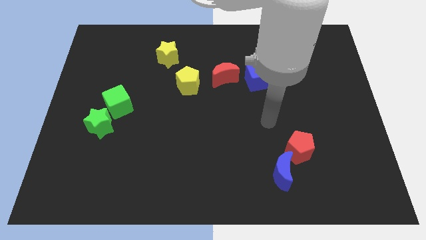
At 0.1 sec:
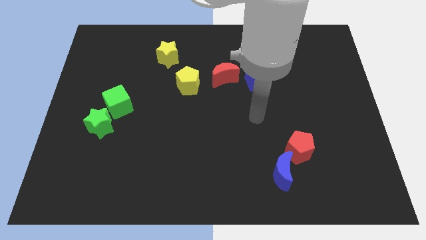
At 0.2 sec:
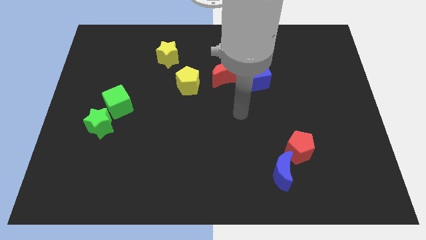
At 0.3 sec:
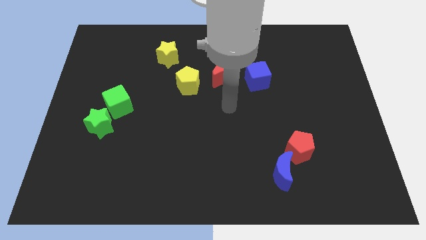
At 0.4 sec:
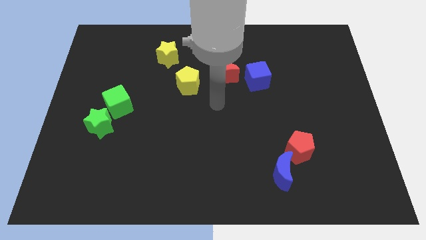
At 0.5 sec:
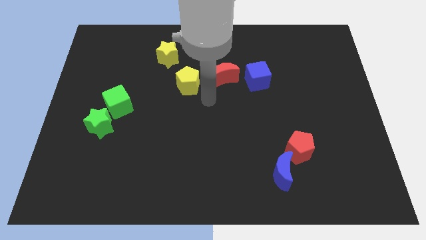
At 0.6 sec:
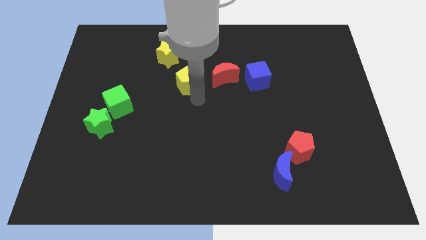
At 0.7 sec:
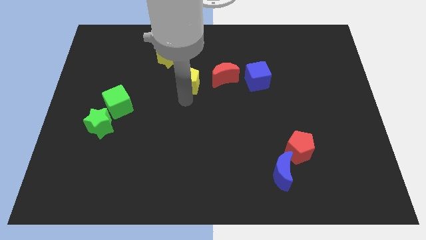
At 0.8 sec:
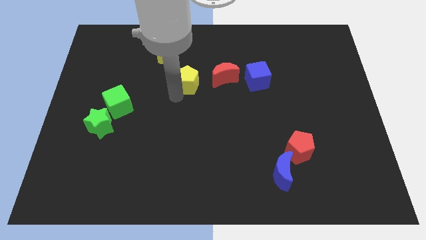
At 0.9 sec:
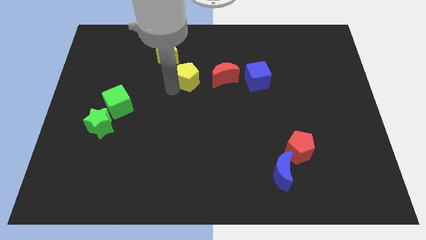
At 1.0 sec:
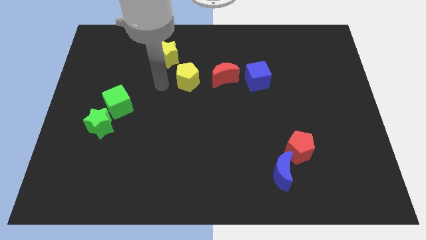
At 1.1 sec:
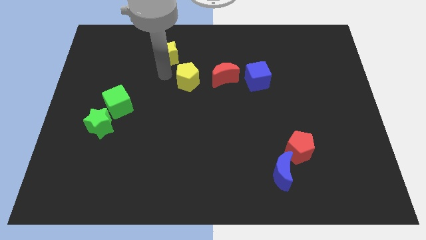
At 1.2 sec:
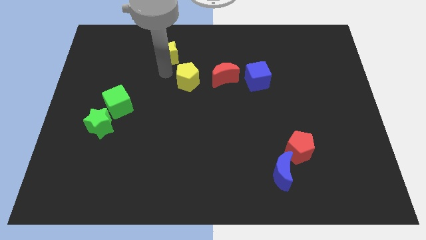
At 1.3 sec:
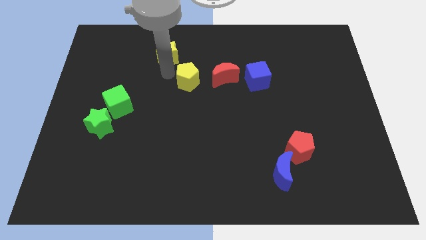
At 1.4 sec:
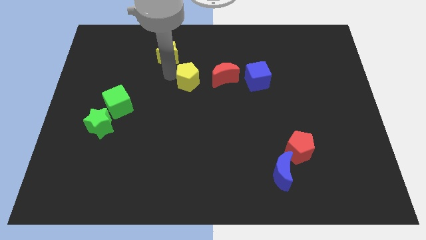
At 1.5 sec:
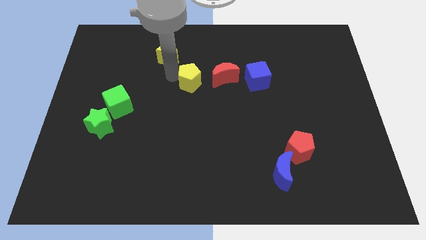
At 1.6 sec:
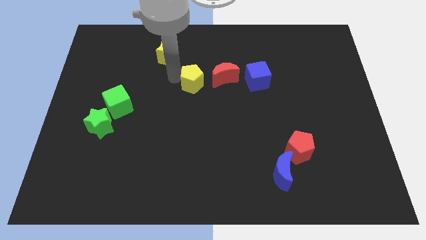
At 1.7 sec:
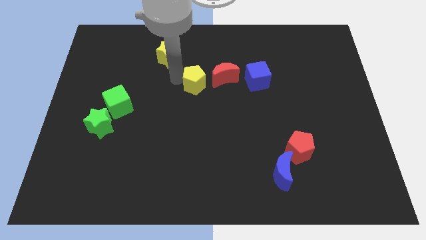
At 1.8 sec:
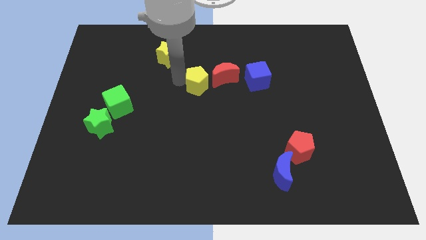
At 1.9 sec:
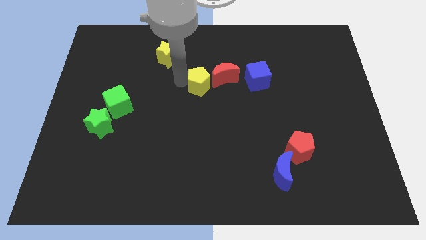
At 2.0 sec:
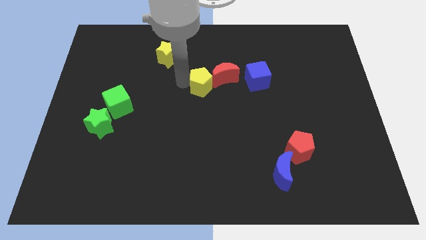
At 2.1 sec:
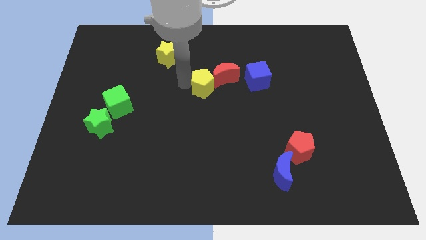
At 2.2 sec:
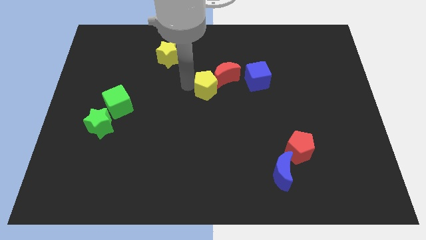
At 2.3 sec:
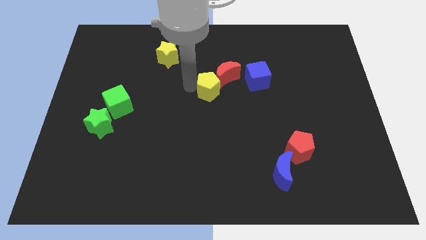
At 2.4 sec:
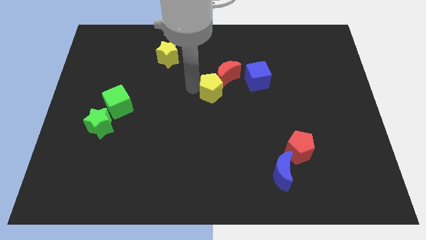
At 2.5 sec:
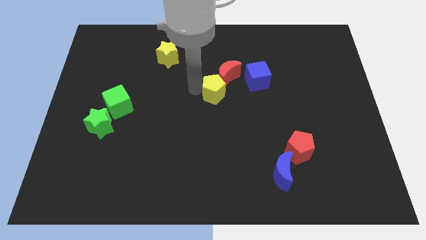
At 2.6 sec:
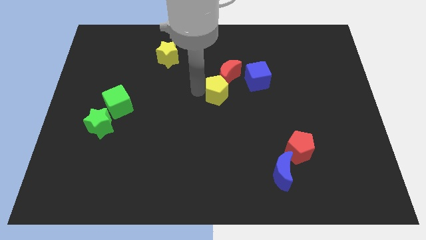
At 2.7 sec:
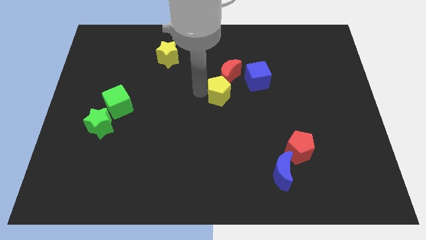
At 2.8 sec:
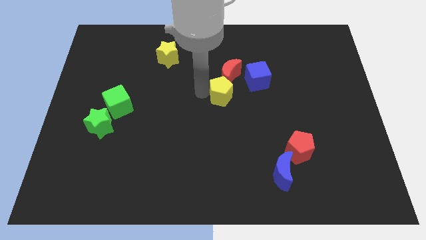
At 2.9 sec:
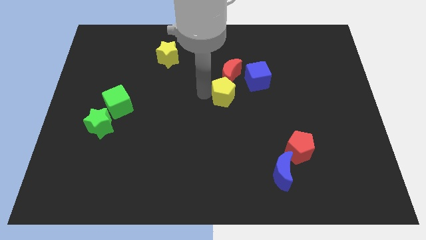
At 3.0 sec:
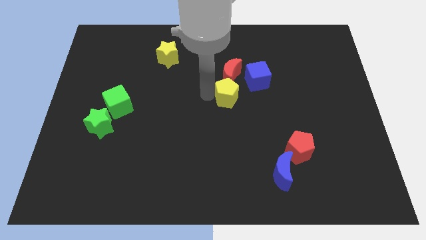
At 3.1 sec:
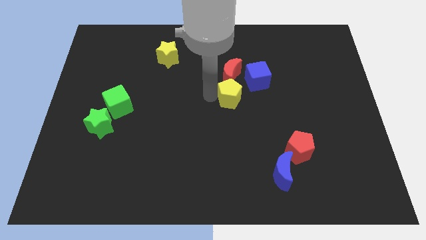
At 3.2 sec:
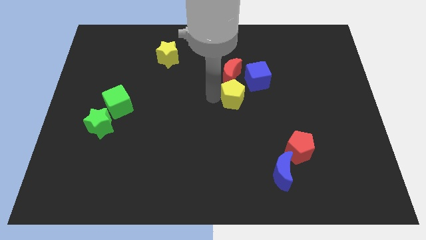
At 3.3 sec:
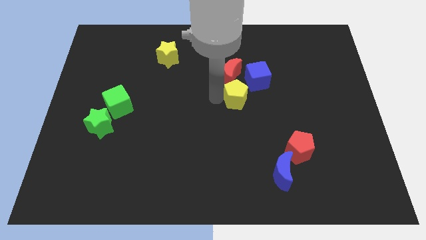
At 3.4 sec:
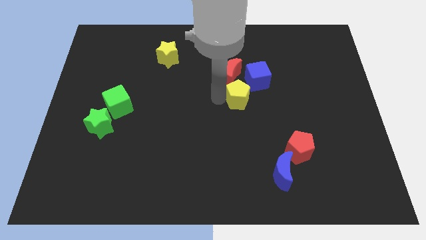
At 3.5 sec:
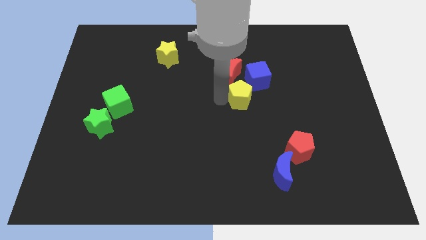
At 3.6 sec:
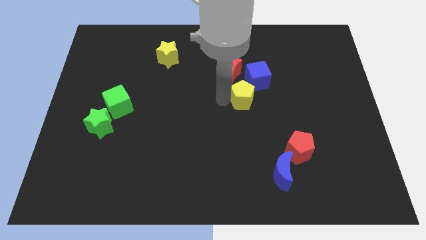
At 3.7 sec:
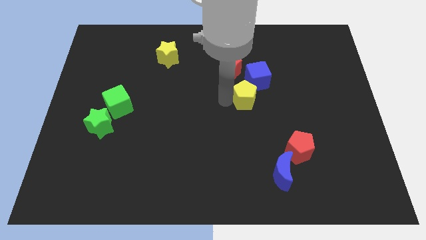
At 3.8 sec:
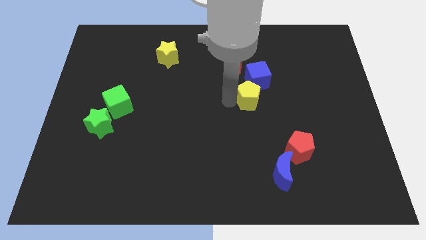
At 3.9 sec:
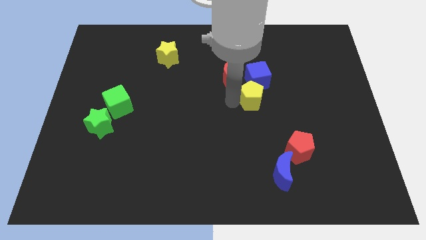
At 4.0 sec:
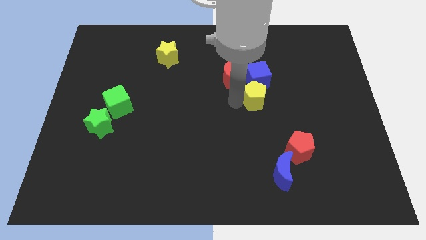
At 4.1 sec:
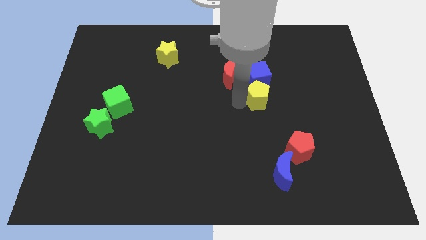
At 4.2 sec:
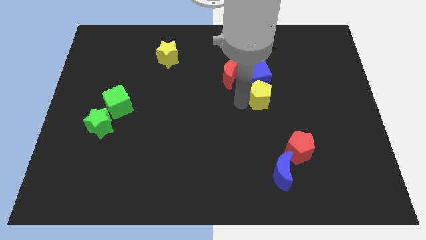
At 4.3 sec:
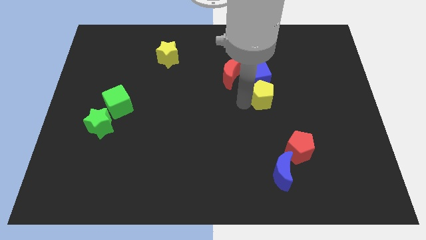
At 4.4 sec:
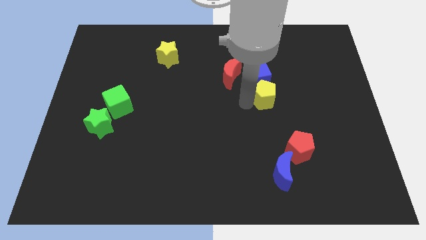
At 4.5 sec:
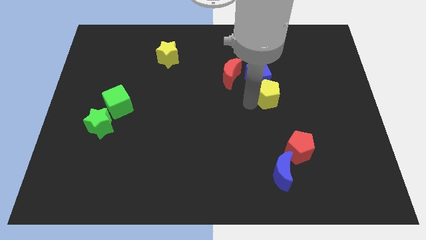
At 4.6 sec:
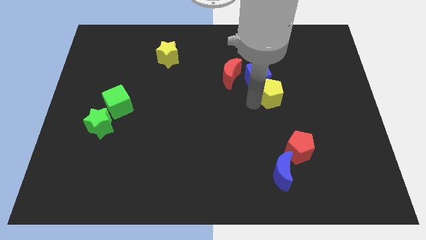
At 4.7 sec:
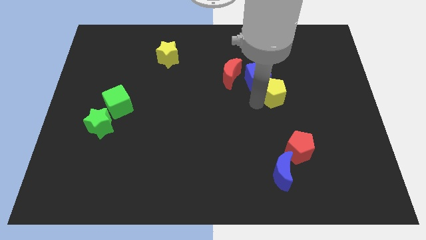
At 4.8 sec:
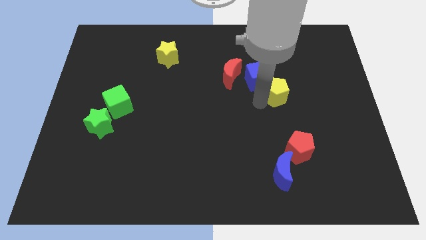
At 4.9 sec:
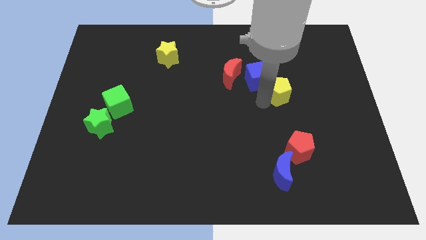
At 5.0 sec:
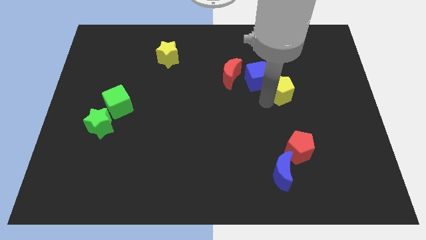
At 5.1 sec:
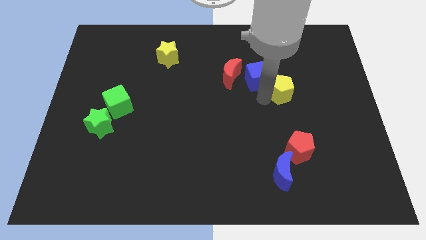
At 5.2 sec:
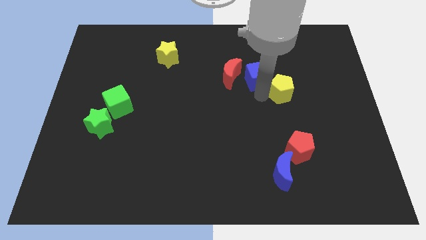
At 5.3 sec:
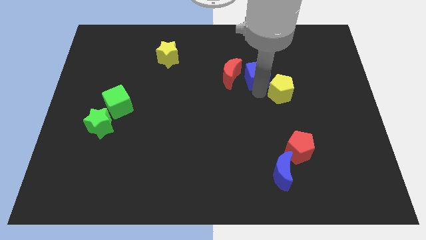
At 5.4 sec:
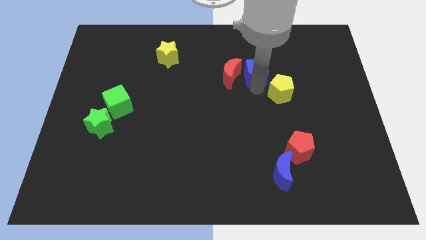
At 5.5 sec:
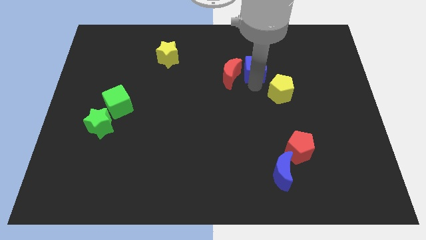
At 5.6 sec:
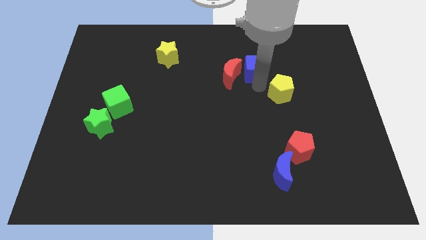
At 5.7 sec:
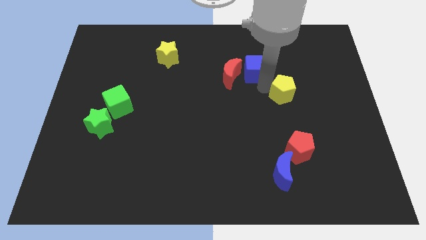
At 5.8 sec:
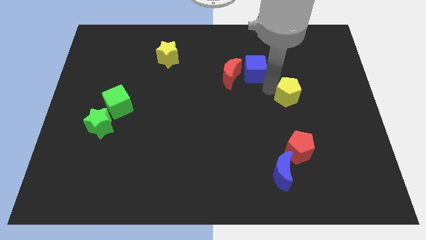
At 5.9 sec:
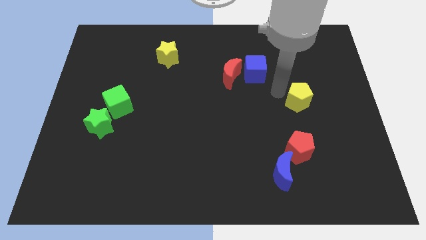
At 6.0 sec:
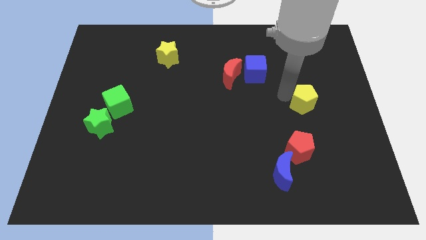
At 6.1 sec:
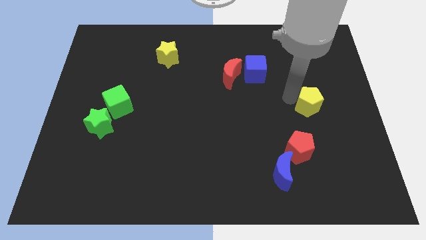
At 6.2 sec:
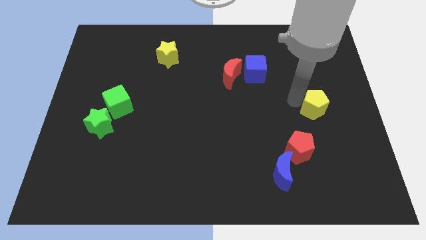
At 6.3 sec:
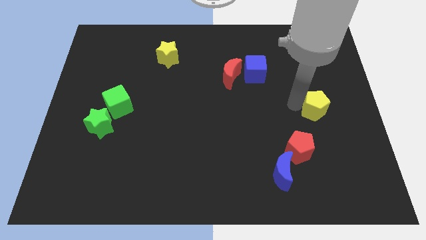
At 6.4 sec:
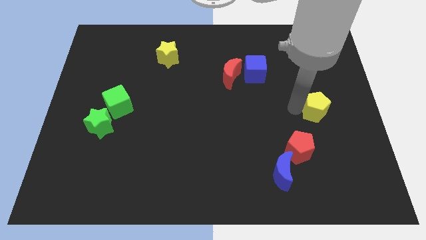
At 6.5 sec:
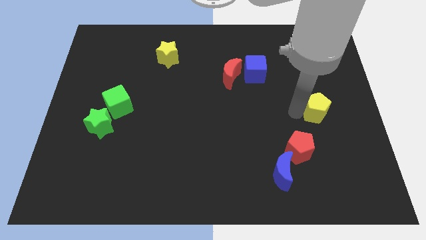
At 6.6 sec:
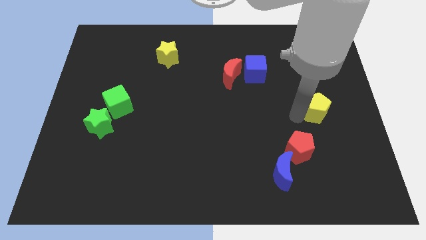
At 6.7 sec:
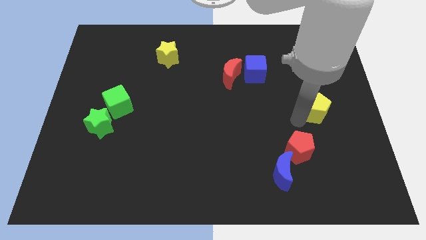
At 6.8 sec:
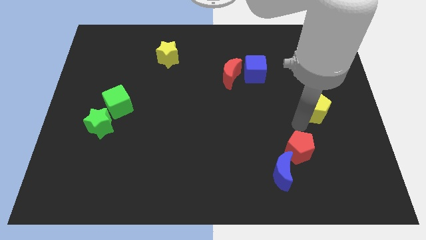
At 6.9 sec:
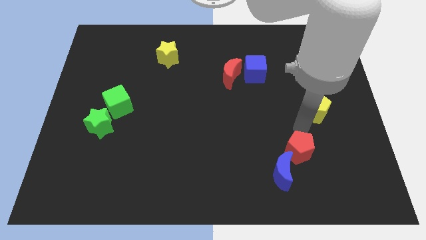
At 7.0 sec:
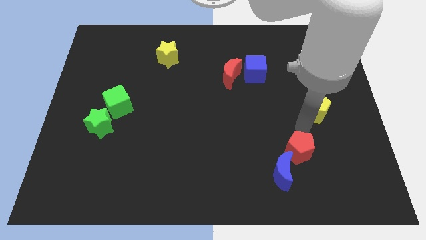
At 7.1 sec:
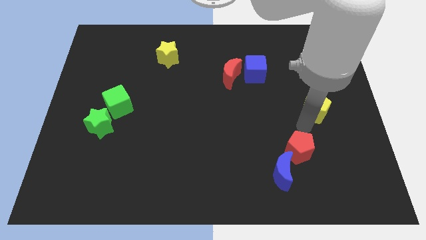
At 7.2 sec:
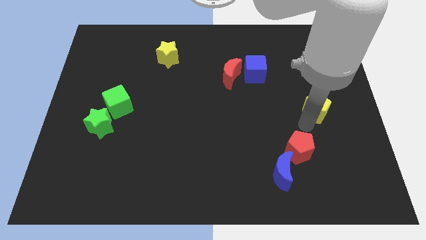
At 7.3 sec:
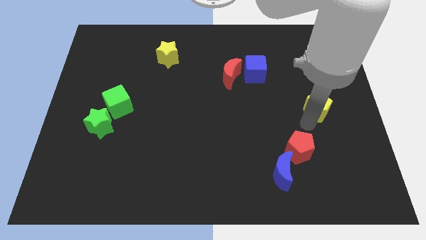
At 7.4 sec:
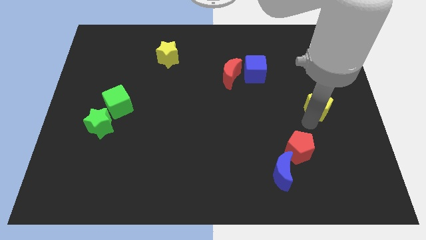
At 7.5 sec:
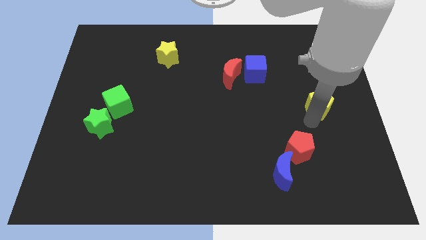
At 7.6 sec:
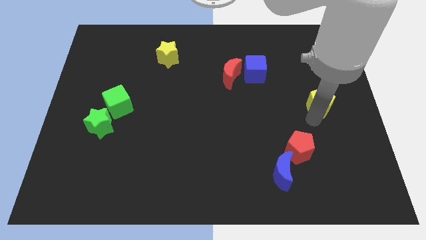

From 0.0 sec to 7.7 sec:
put the yellow pentagon to the center right
